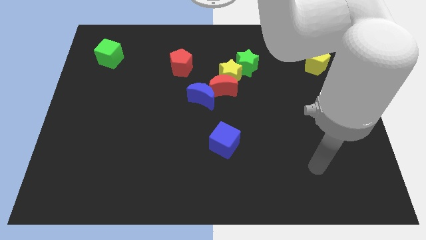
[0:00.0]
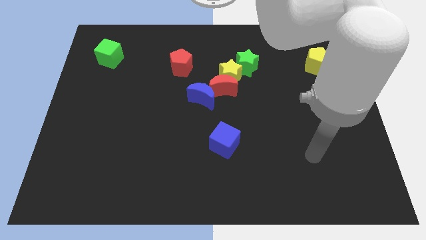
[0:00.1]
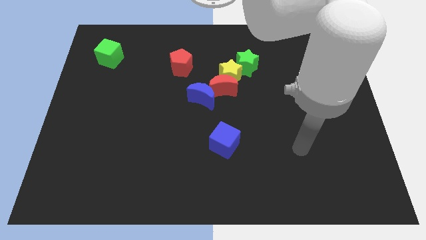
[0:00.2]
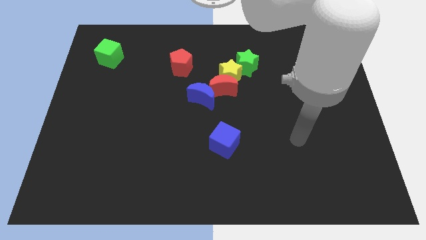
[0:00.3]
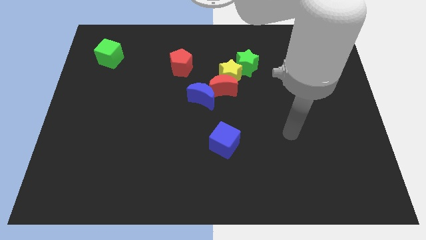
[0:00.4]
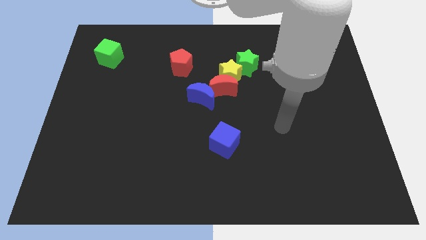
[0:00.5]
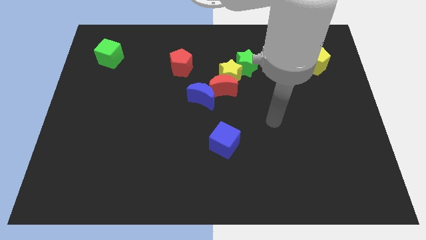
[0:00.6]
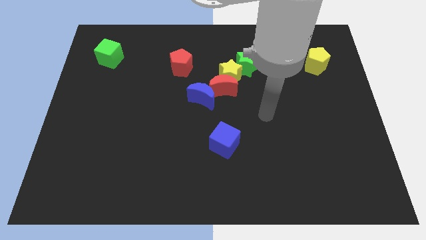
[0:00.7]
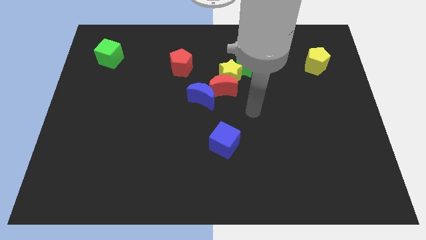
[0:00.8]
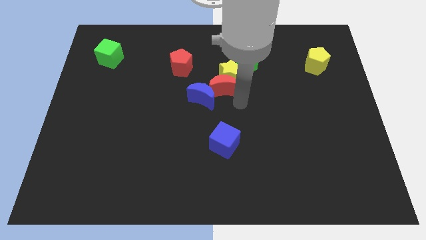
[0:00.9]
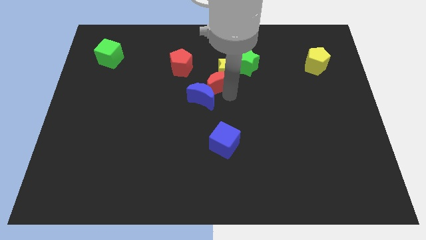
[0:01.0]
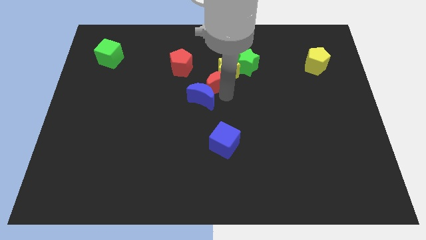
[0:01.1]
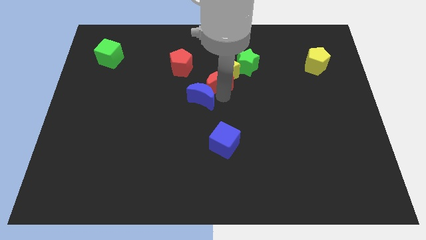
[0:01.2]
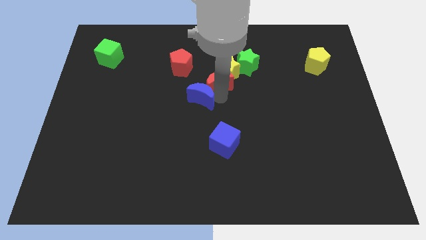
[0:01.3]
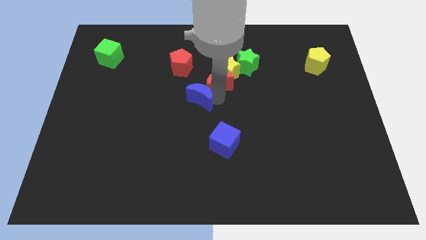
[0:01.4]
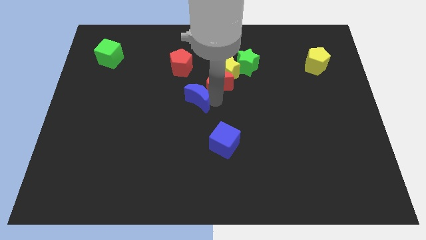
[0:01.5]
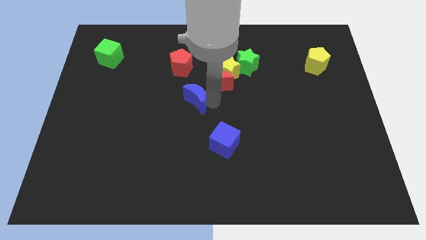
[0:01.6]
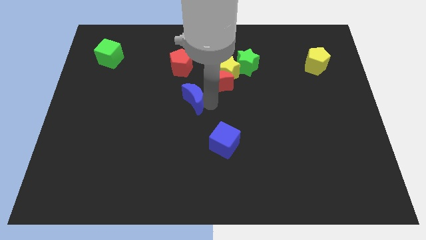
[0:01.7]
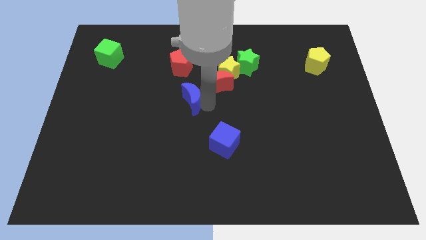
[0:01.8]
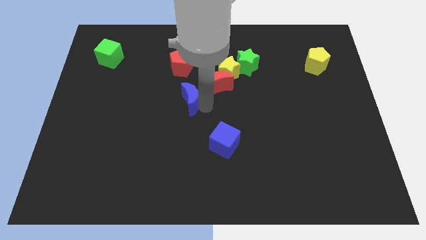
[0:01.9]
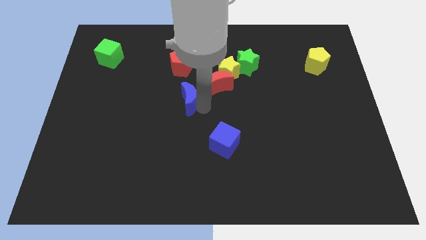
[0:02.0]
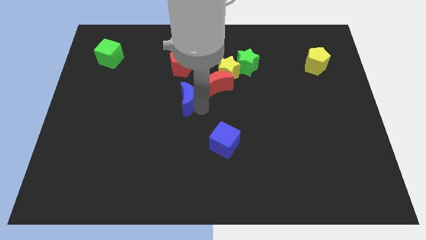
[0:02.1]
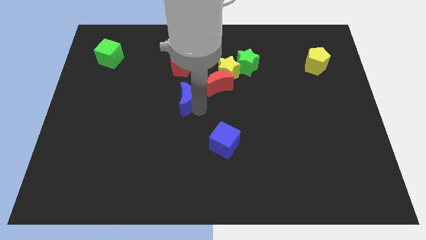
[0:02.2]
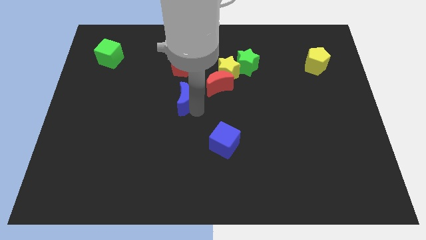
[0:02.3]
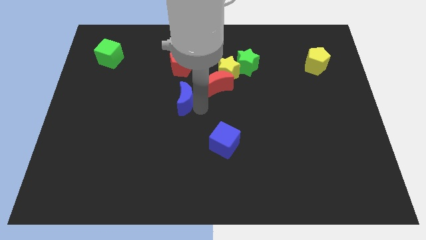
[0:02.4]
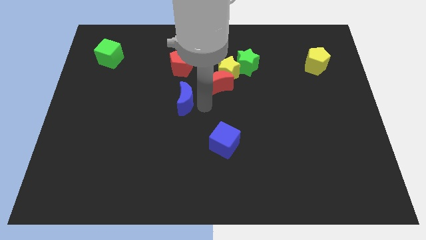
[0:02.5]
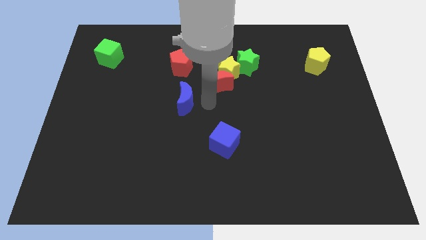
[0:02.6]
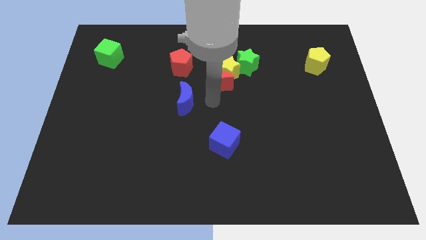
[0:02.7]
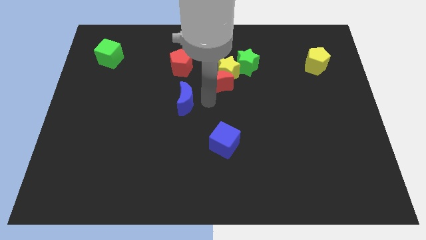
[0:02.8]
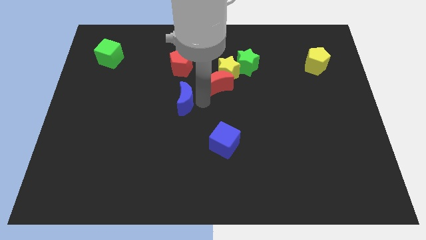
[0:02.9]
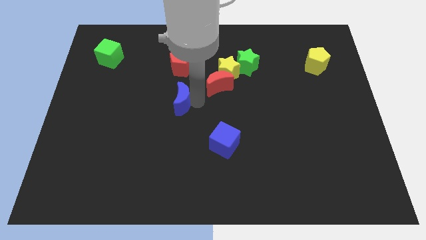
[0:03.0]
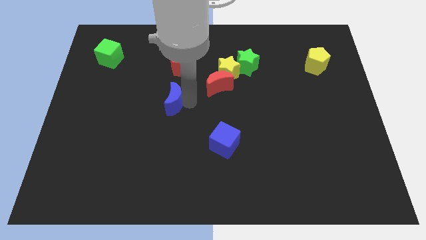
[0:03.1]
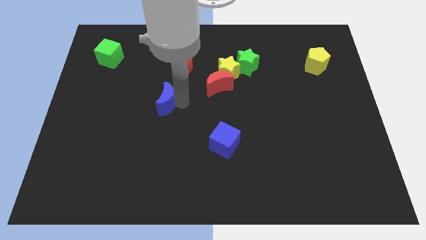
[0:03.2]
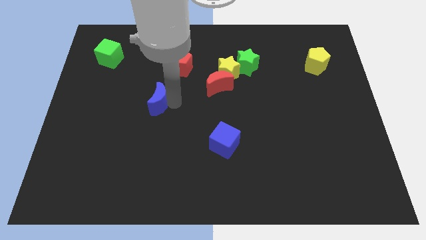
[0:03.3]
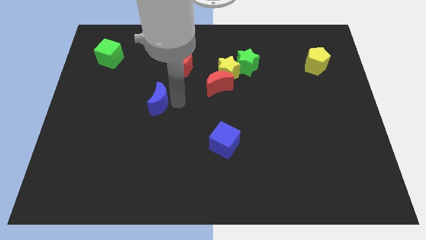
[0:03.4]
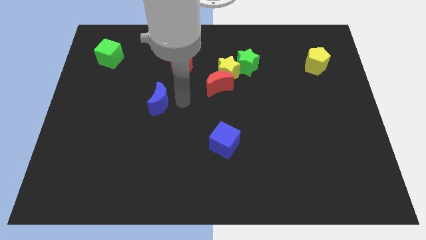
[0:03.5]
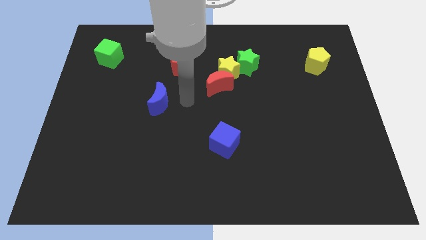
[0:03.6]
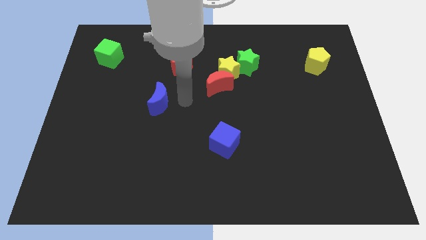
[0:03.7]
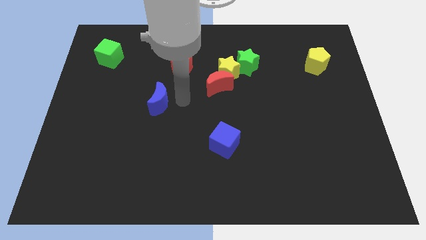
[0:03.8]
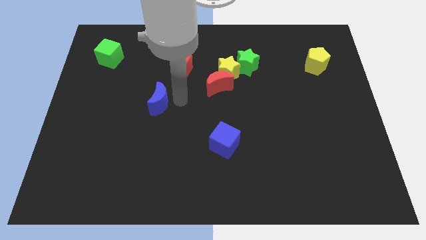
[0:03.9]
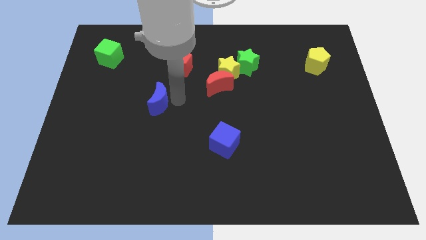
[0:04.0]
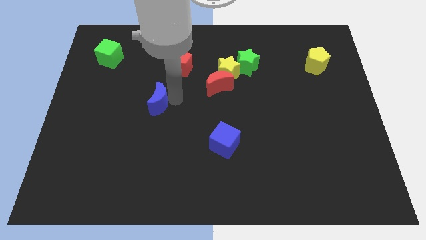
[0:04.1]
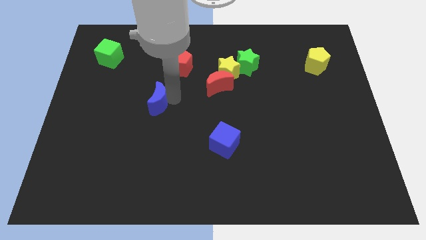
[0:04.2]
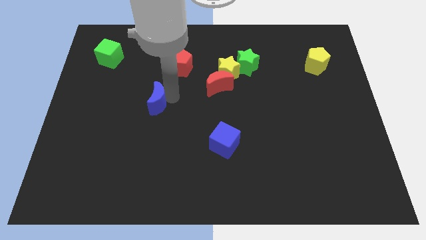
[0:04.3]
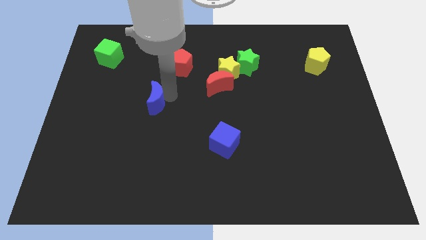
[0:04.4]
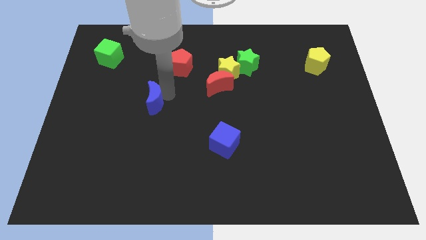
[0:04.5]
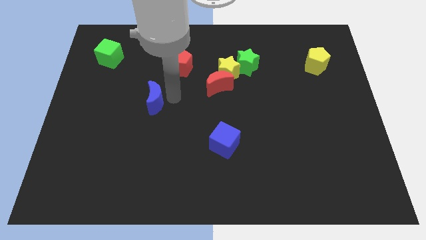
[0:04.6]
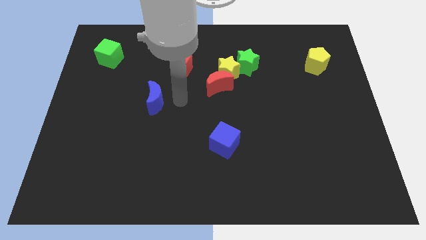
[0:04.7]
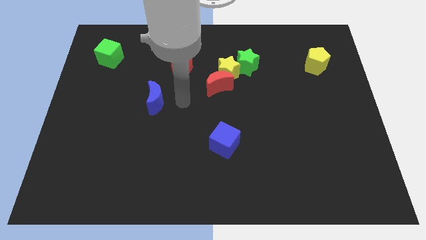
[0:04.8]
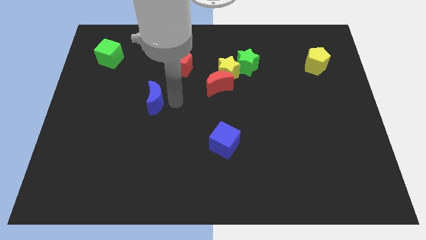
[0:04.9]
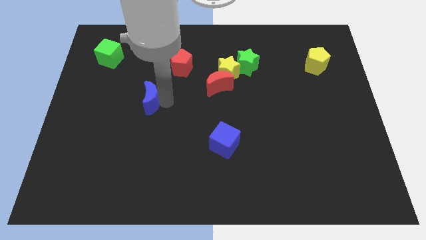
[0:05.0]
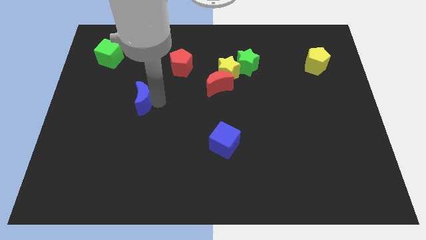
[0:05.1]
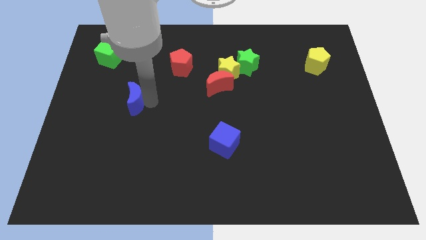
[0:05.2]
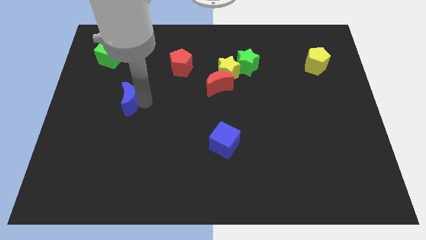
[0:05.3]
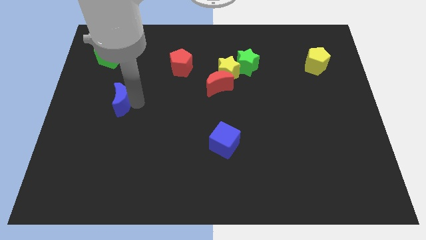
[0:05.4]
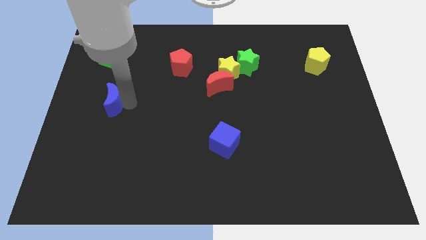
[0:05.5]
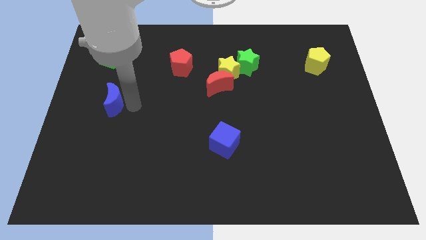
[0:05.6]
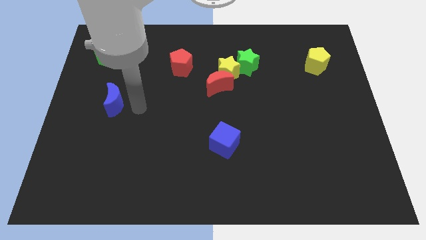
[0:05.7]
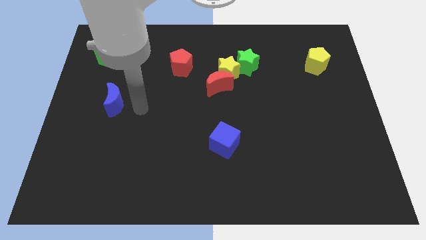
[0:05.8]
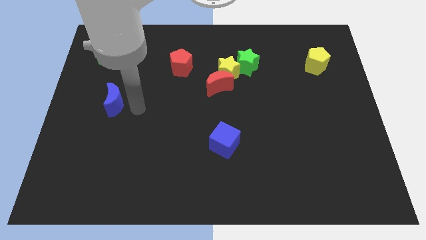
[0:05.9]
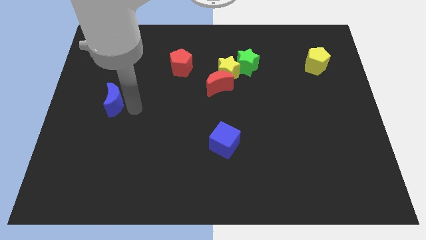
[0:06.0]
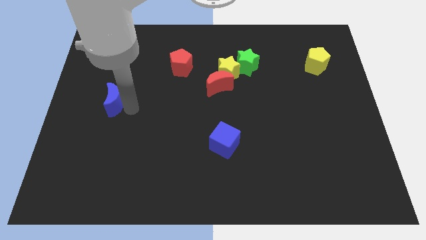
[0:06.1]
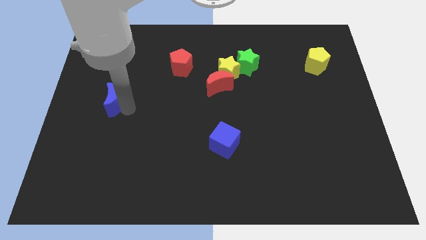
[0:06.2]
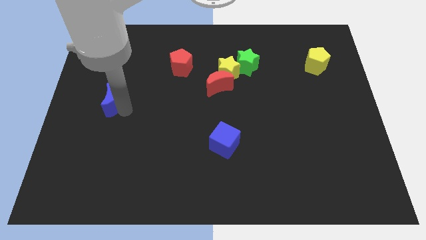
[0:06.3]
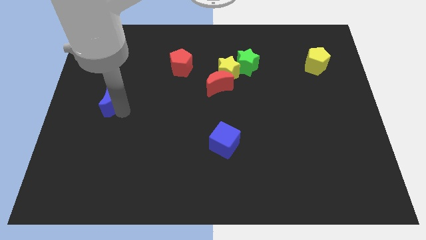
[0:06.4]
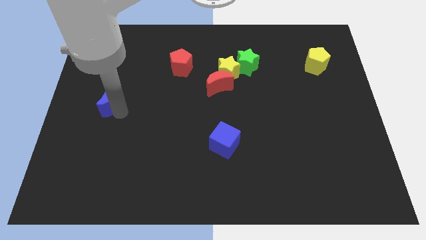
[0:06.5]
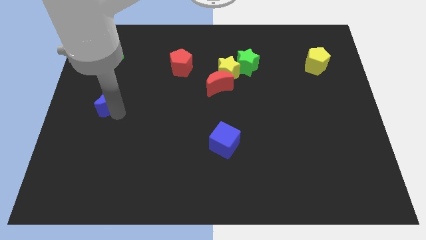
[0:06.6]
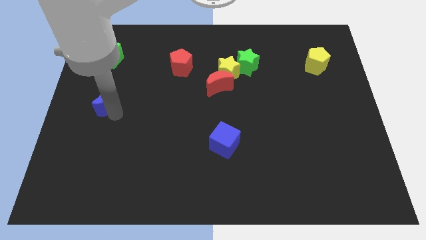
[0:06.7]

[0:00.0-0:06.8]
push the blue moon to the left side
